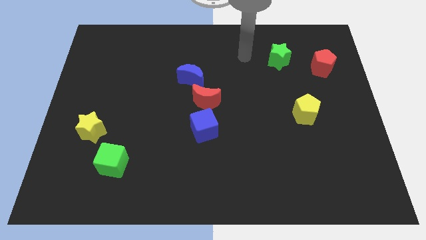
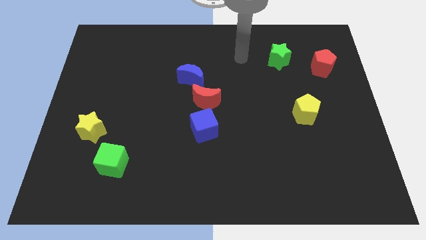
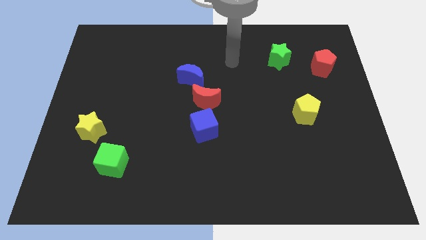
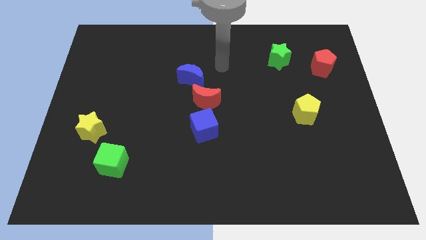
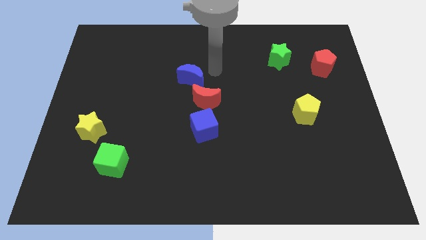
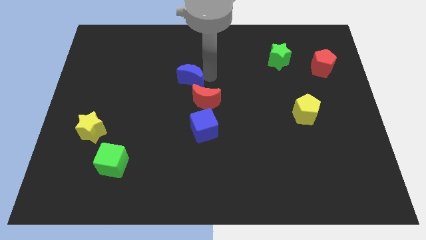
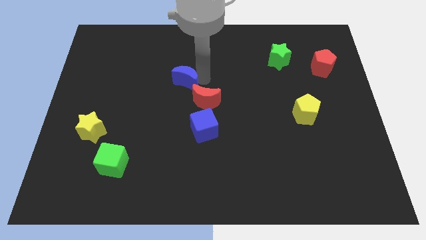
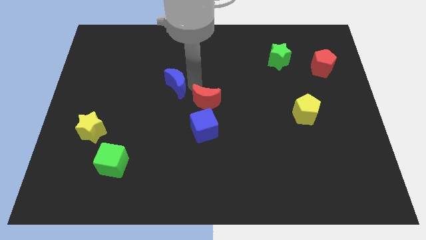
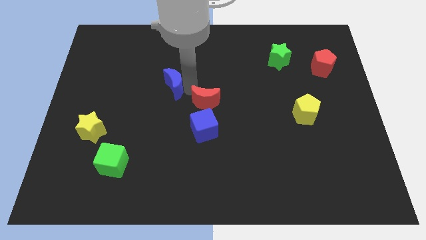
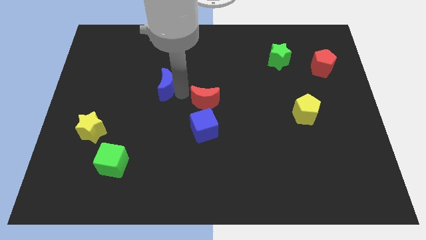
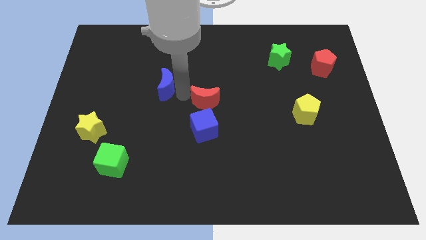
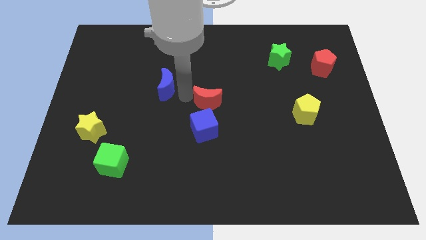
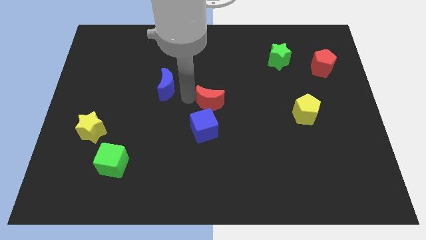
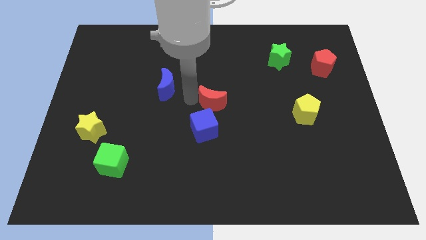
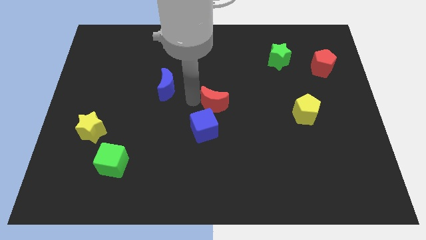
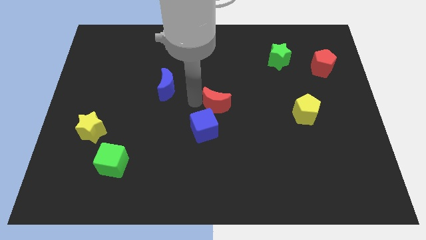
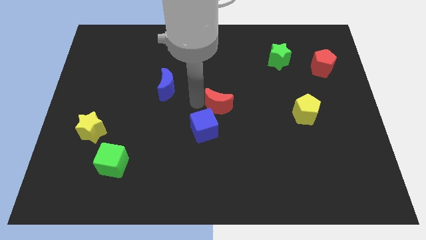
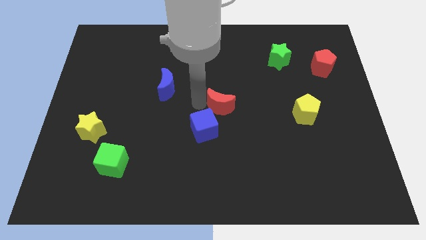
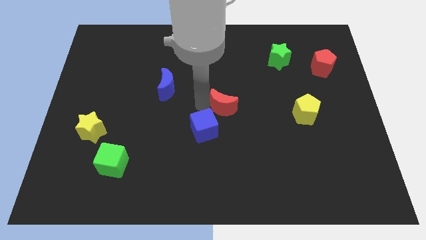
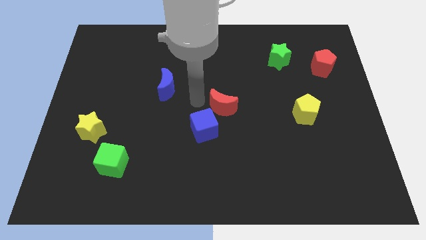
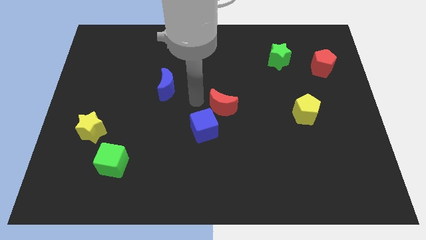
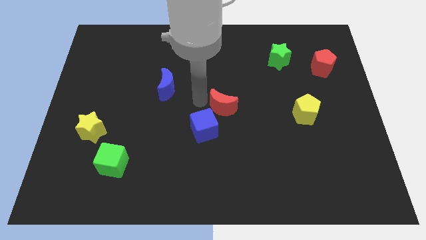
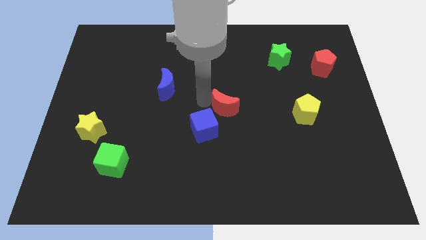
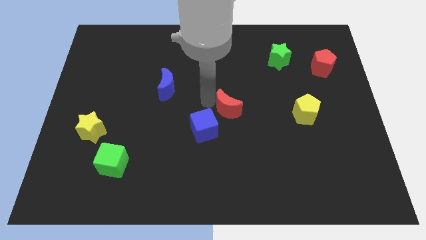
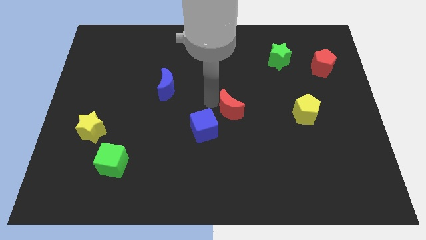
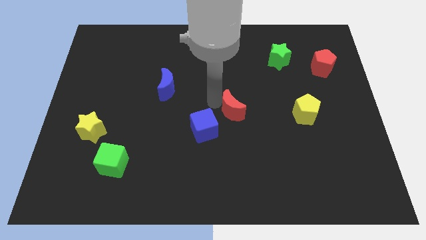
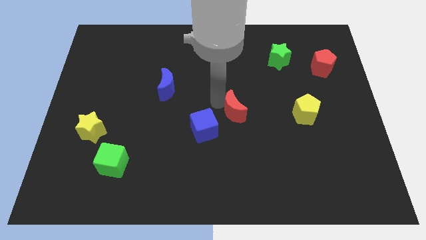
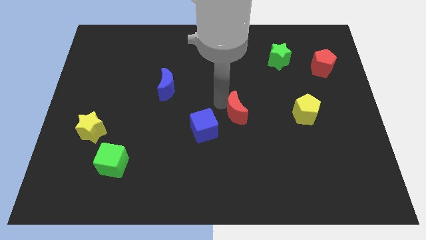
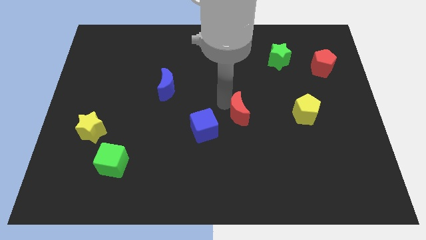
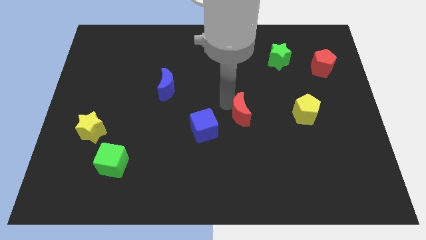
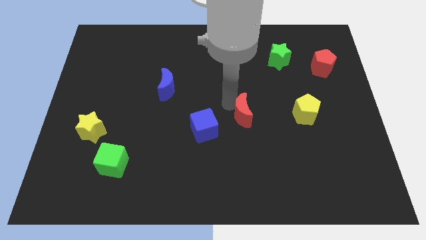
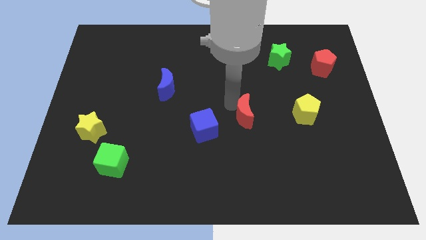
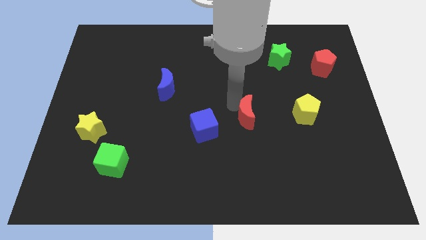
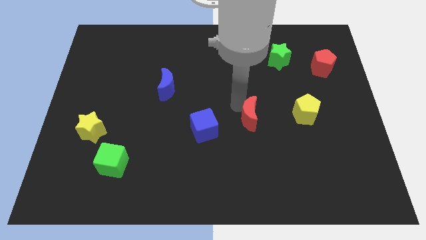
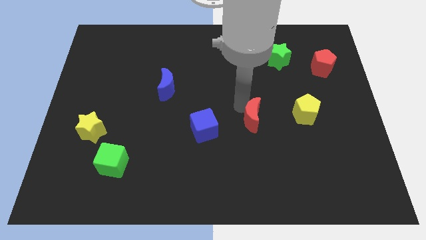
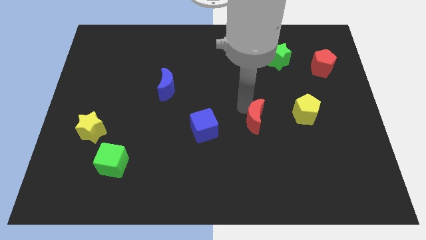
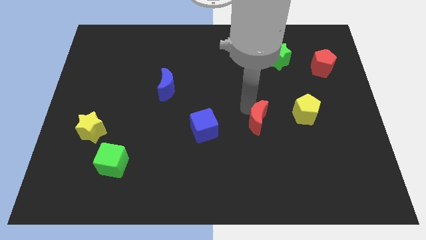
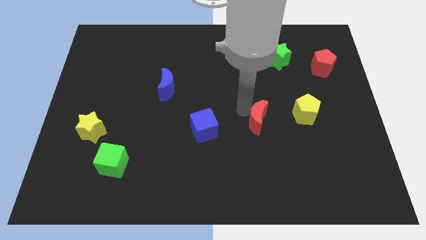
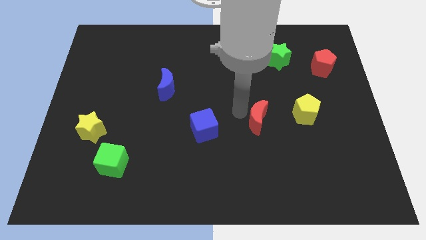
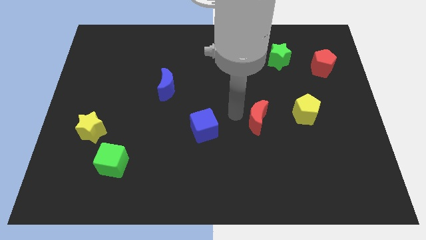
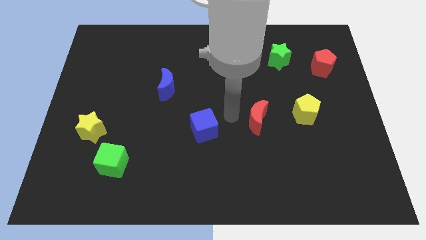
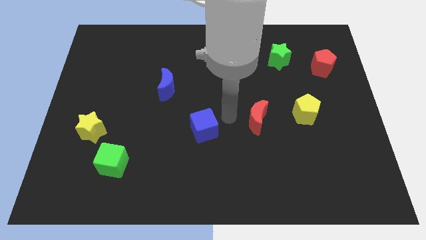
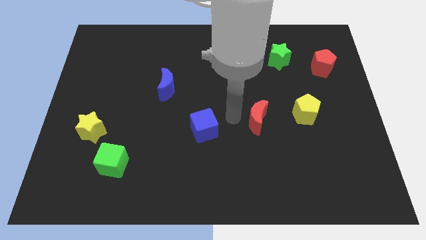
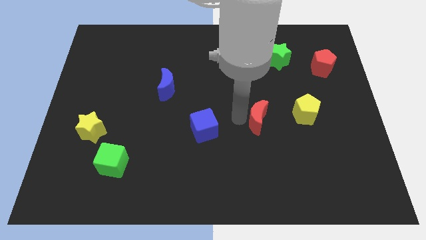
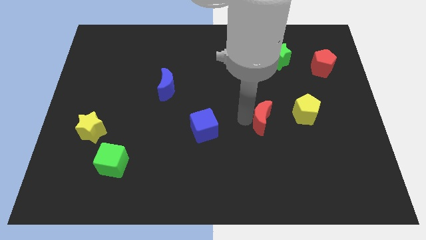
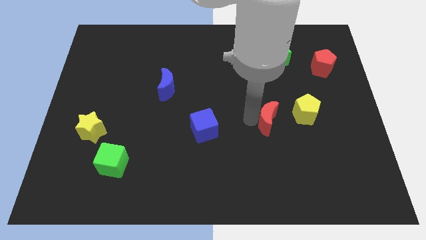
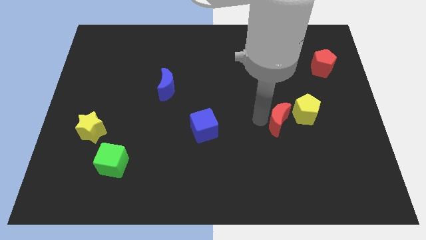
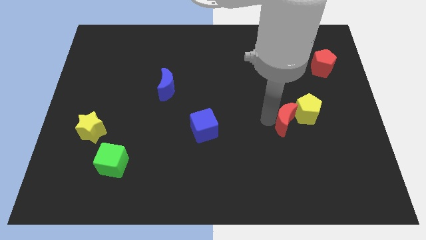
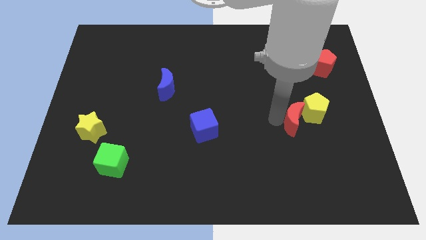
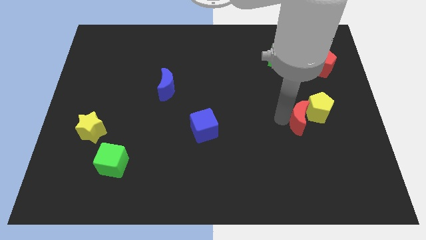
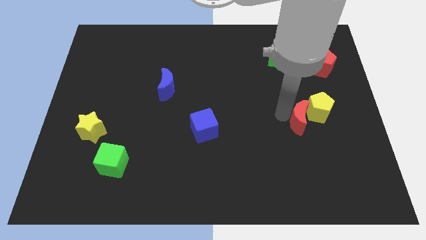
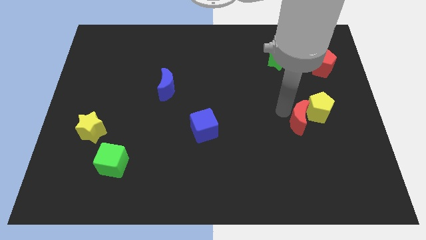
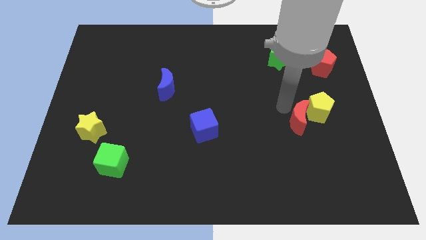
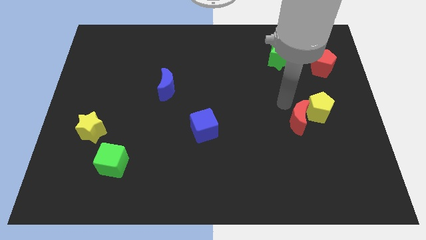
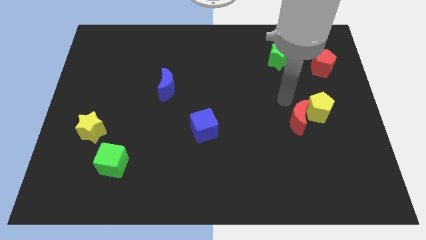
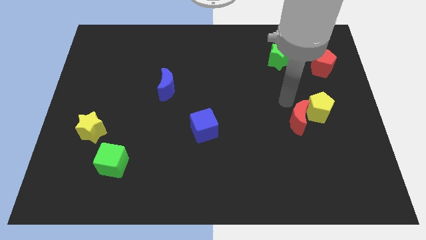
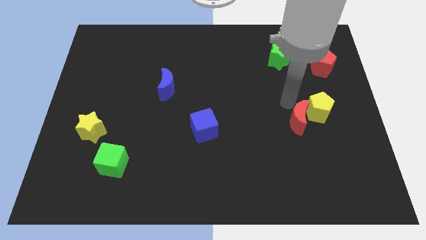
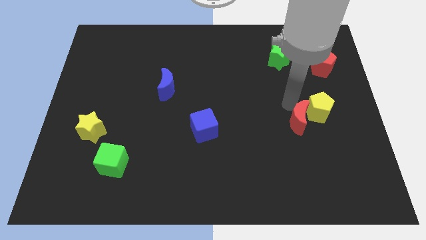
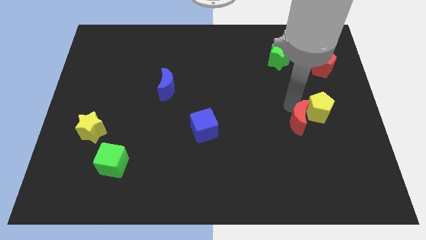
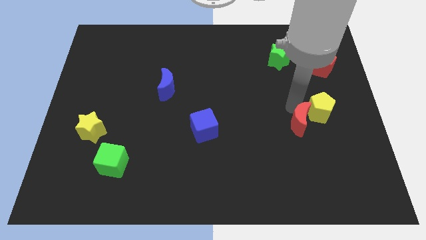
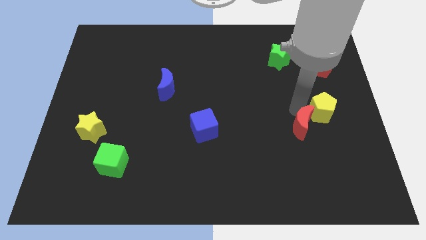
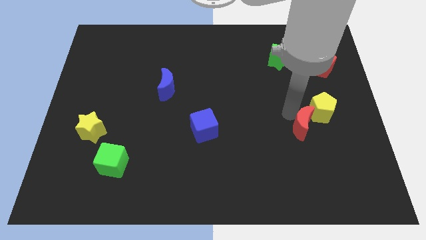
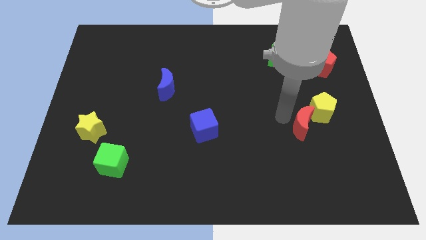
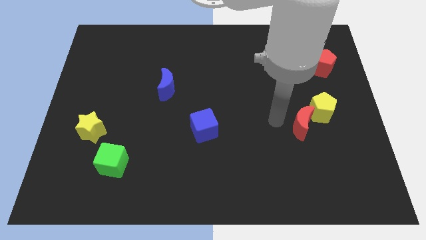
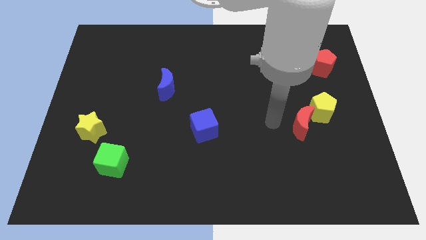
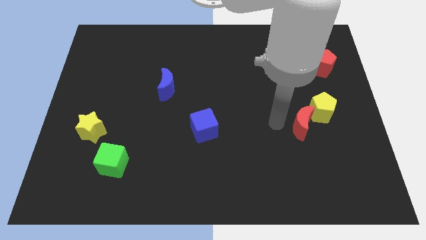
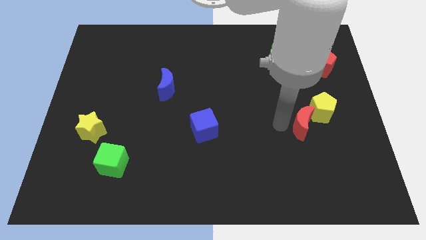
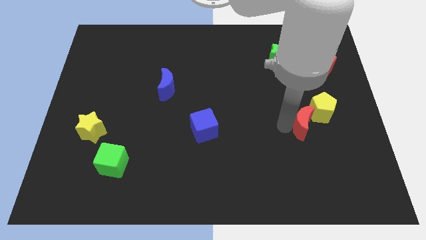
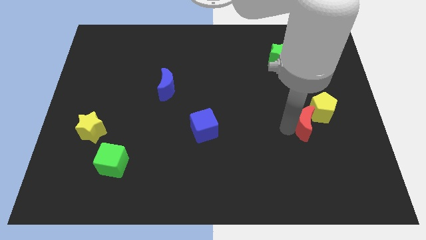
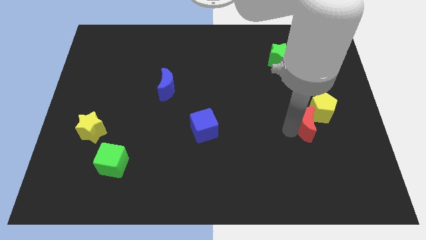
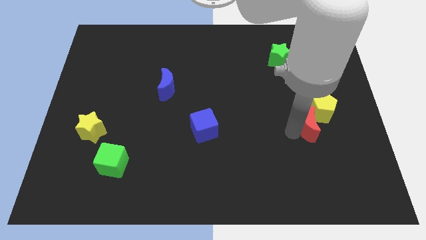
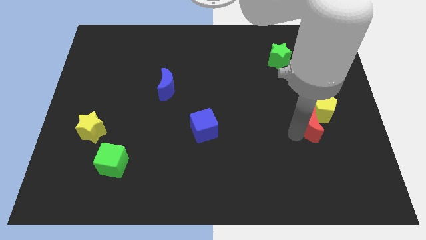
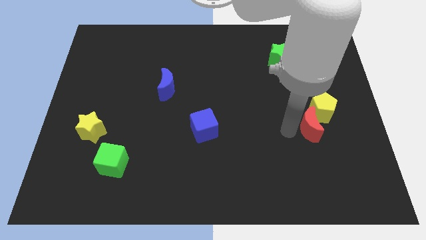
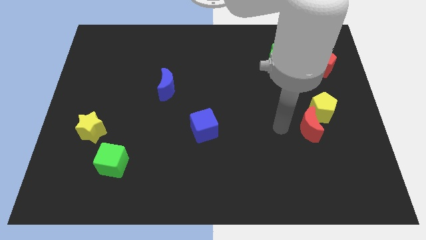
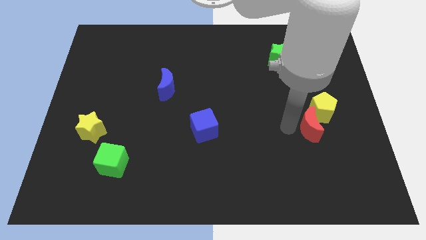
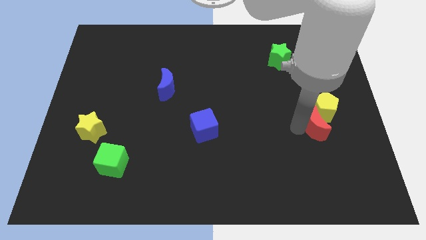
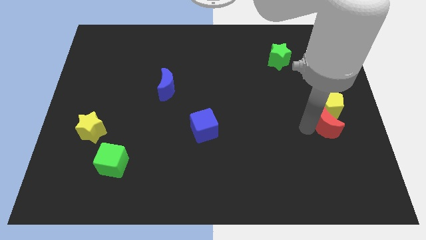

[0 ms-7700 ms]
slide the red moon to the bottom right of the yellow pentagon

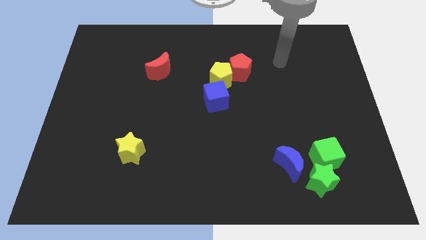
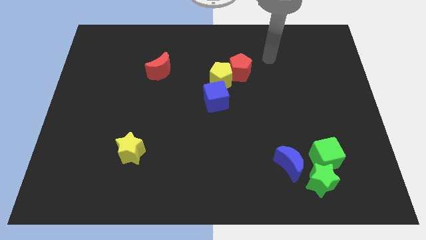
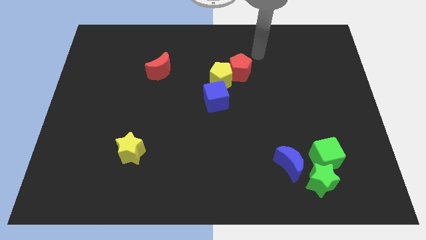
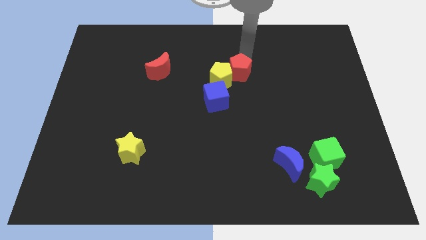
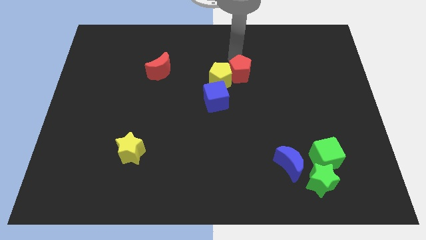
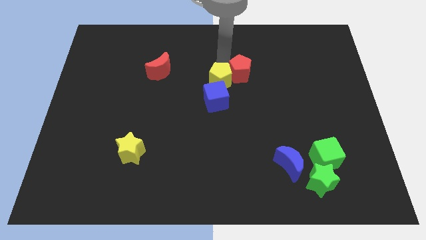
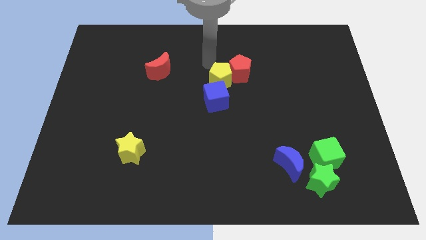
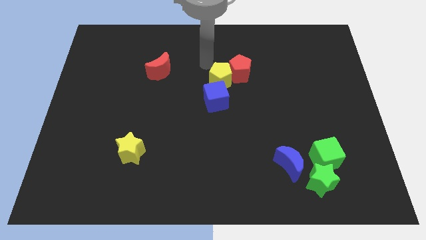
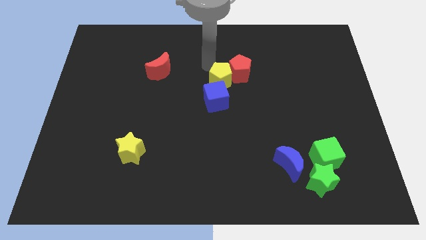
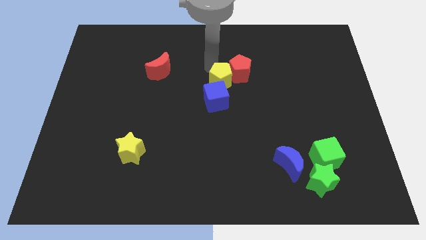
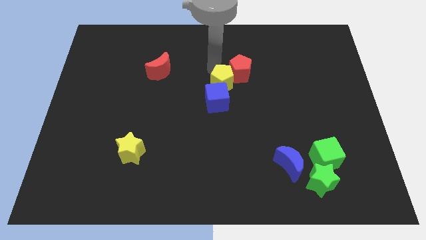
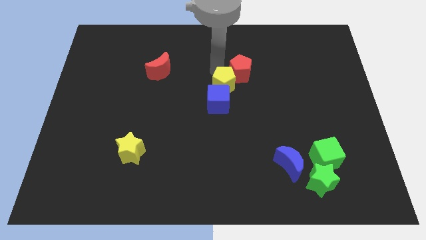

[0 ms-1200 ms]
slide the yellow pentagon below the red pentagon
